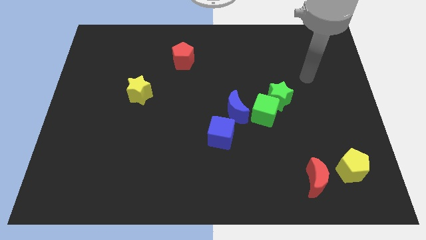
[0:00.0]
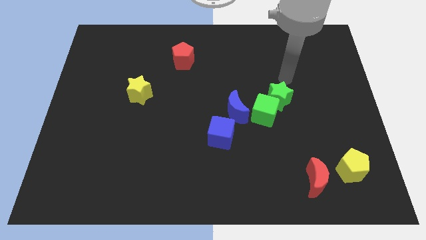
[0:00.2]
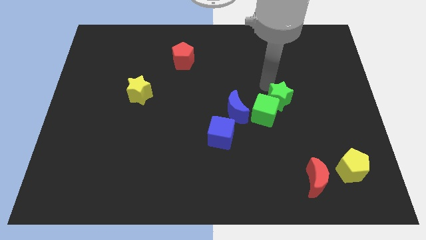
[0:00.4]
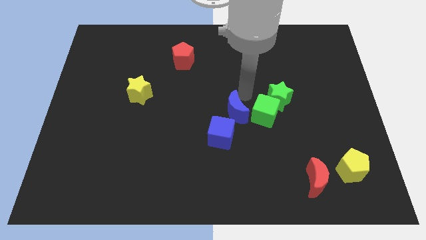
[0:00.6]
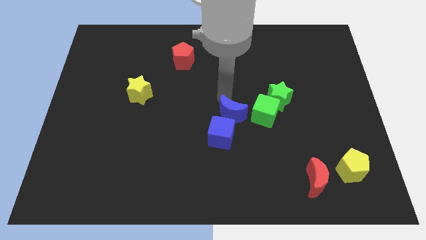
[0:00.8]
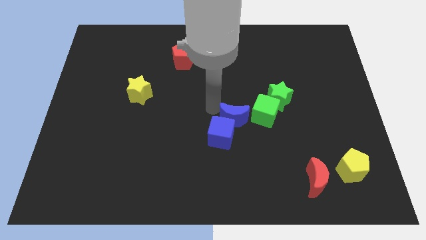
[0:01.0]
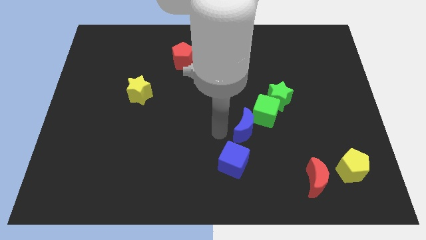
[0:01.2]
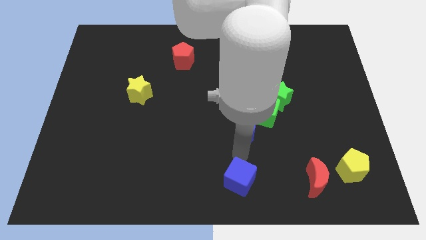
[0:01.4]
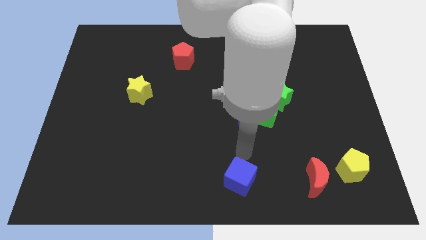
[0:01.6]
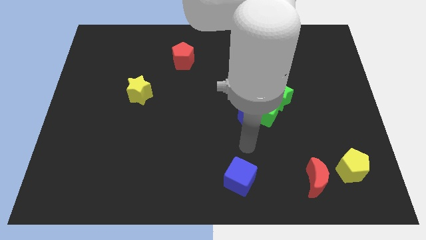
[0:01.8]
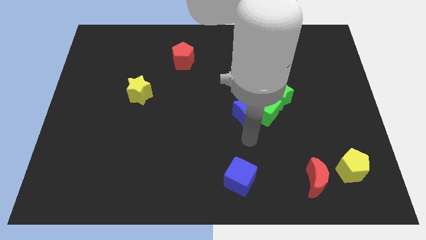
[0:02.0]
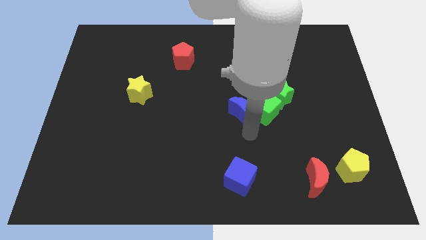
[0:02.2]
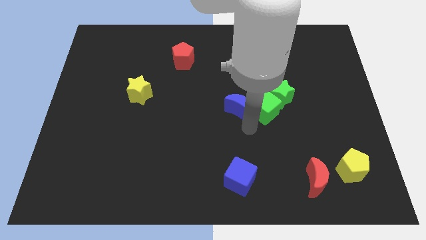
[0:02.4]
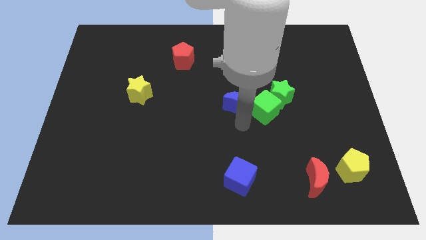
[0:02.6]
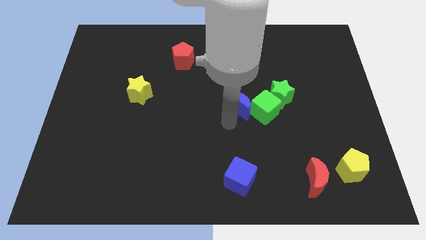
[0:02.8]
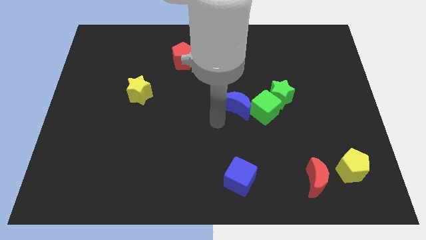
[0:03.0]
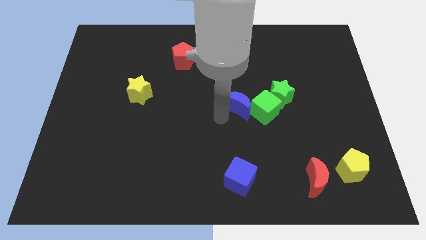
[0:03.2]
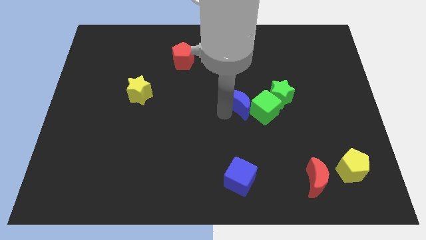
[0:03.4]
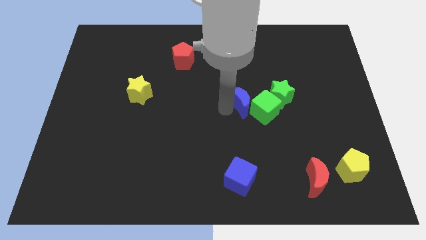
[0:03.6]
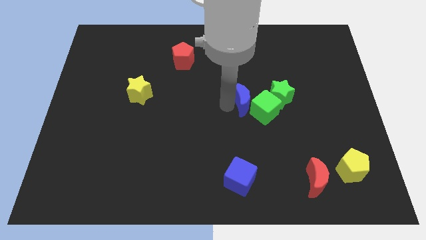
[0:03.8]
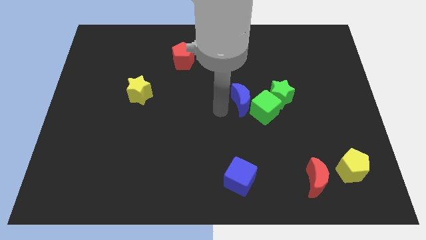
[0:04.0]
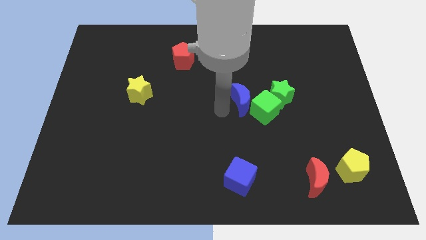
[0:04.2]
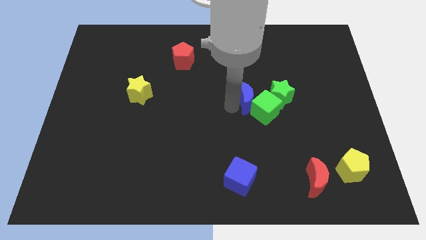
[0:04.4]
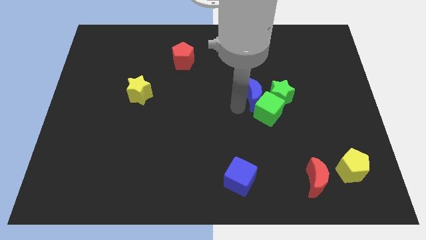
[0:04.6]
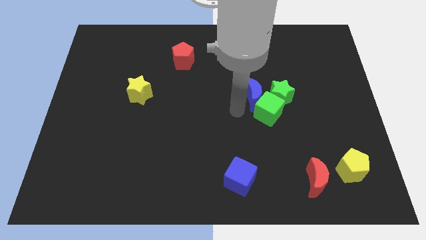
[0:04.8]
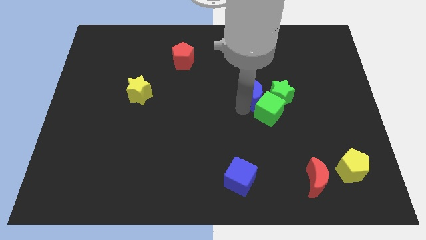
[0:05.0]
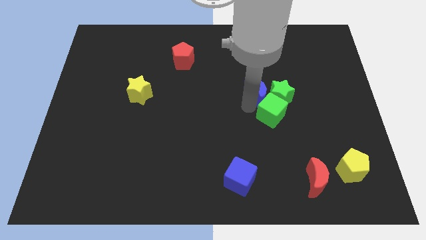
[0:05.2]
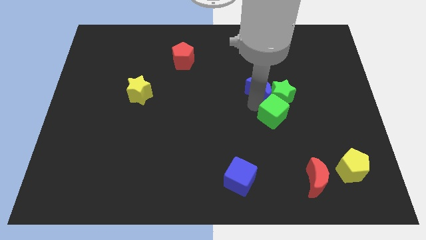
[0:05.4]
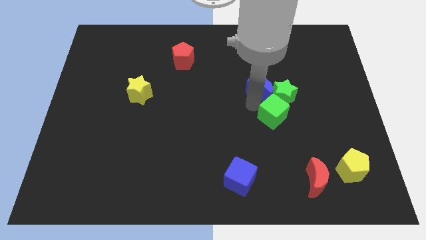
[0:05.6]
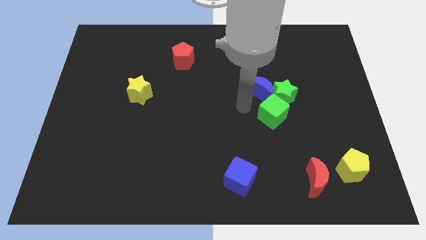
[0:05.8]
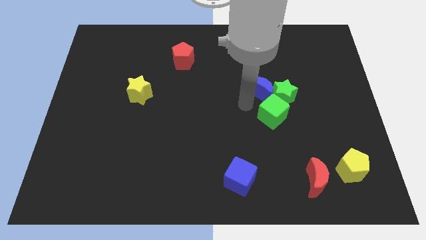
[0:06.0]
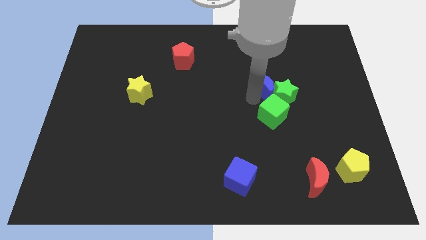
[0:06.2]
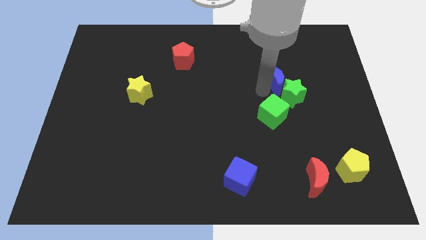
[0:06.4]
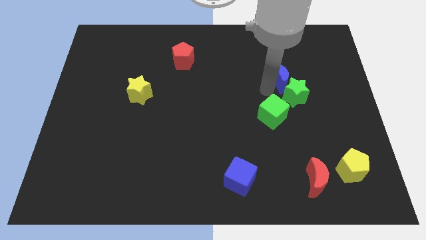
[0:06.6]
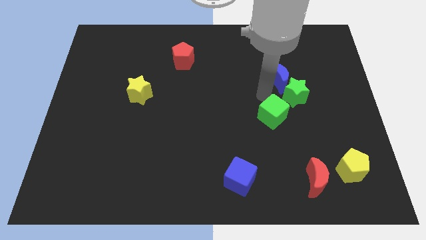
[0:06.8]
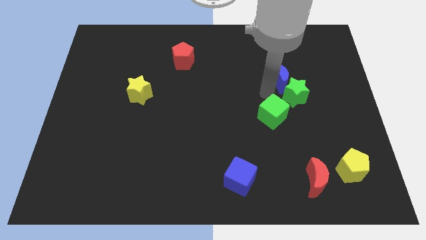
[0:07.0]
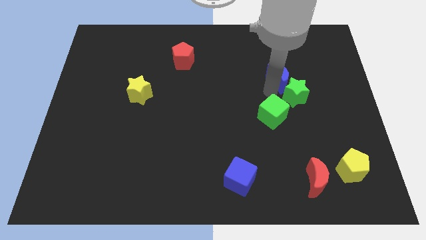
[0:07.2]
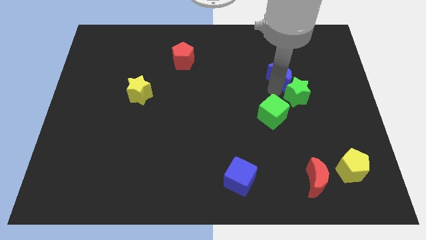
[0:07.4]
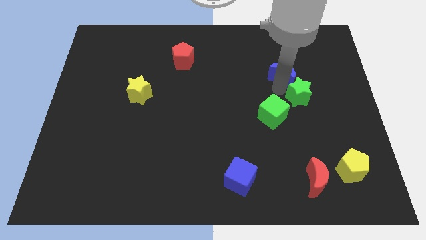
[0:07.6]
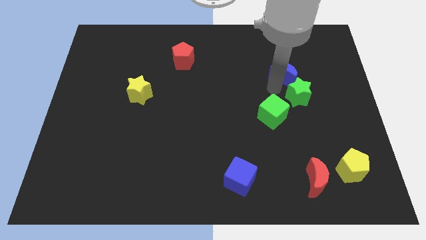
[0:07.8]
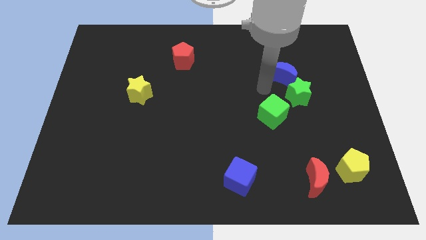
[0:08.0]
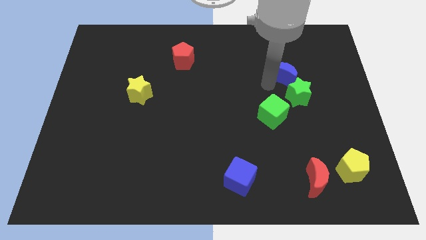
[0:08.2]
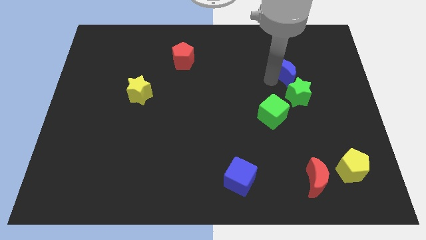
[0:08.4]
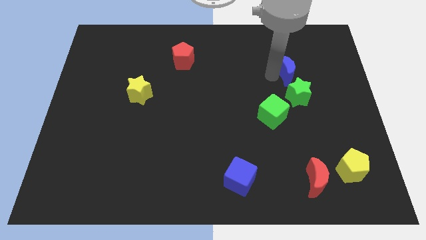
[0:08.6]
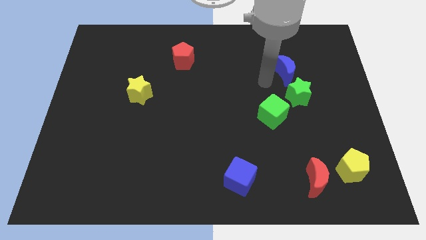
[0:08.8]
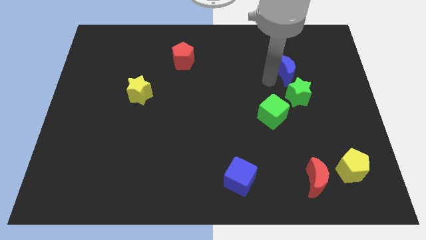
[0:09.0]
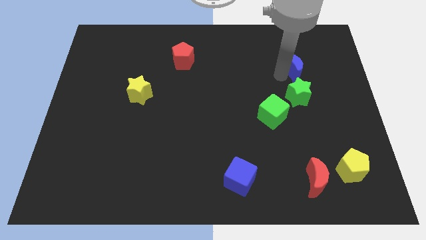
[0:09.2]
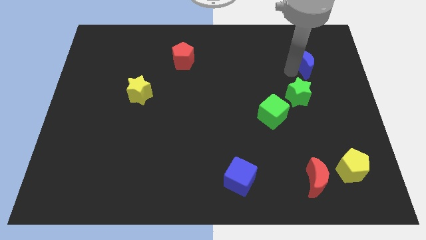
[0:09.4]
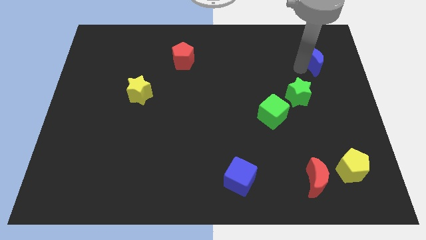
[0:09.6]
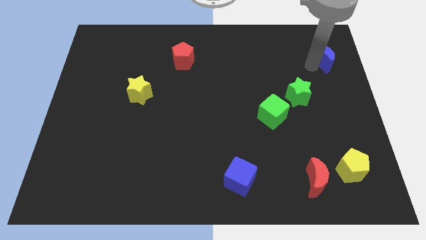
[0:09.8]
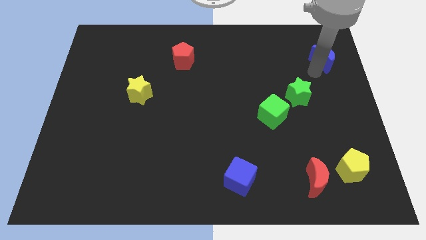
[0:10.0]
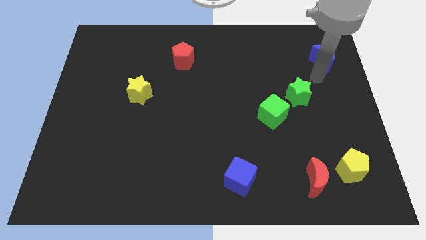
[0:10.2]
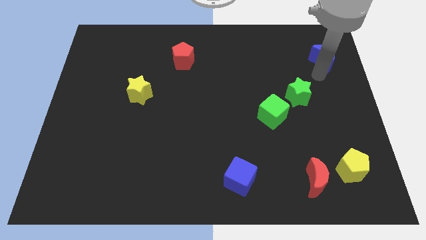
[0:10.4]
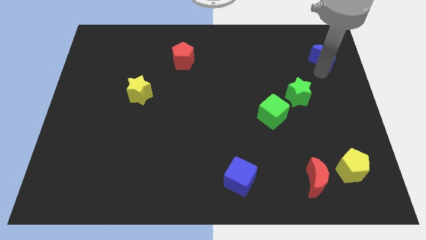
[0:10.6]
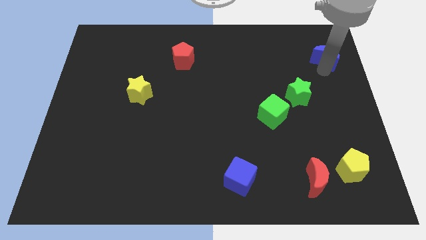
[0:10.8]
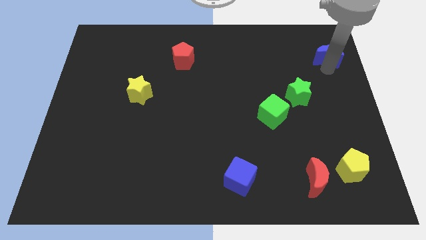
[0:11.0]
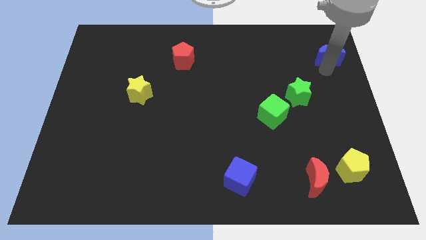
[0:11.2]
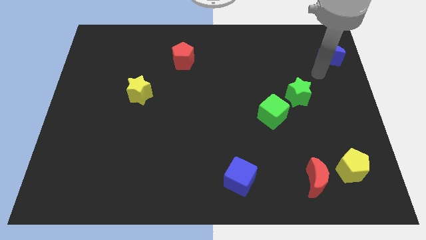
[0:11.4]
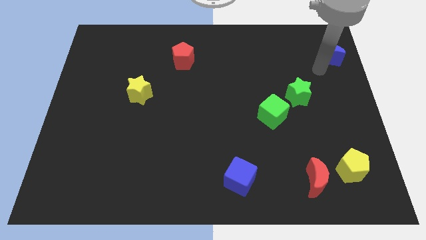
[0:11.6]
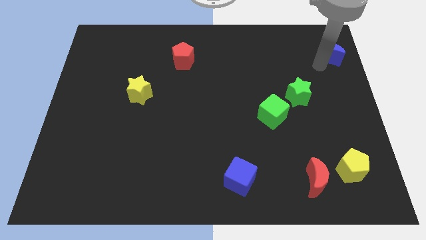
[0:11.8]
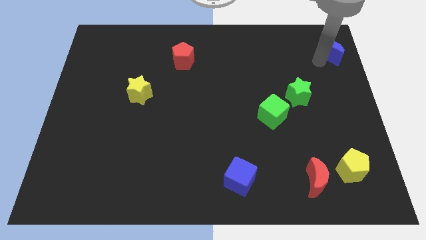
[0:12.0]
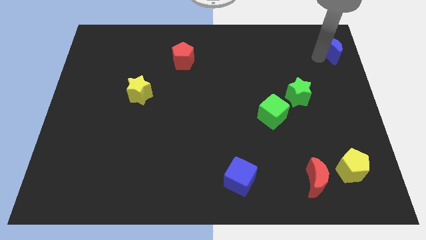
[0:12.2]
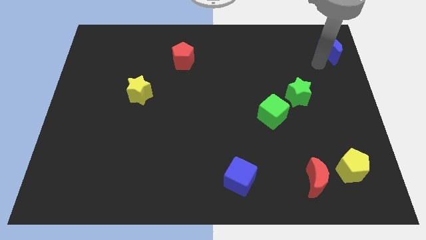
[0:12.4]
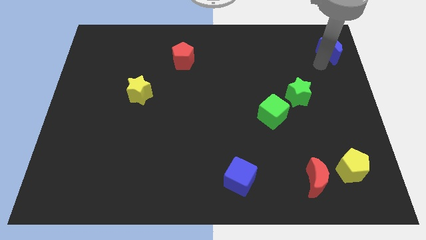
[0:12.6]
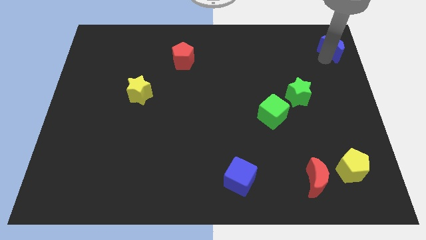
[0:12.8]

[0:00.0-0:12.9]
slide the blue moon to the top right corner

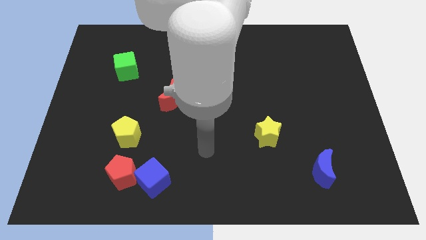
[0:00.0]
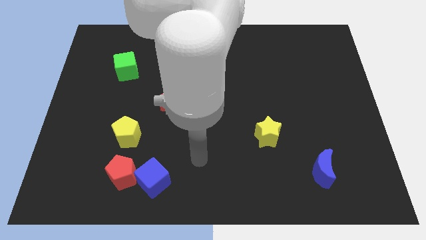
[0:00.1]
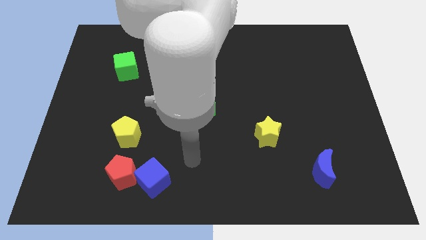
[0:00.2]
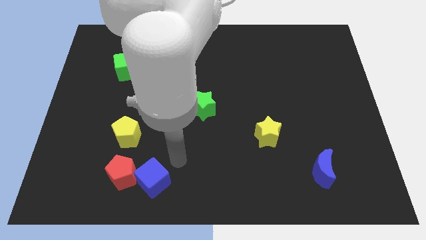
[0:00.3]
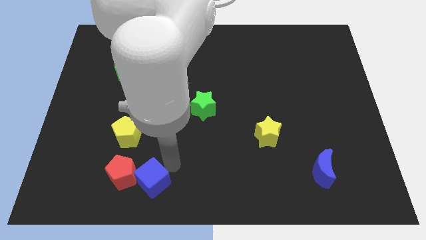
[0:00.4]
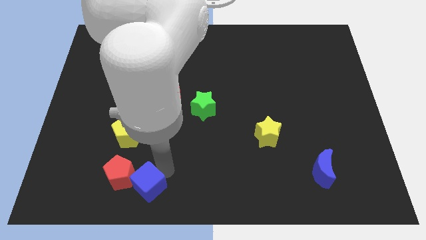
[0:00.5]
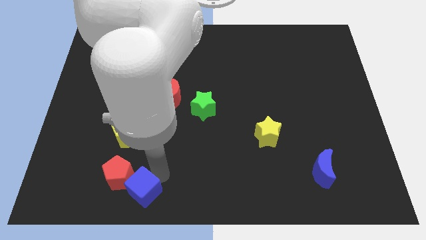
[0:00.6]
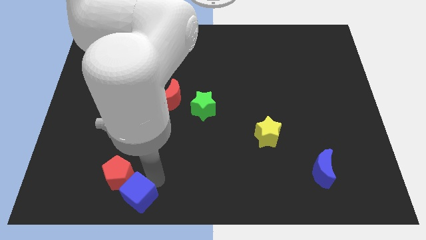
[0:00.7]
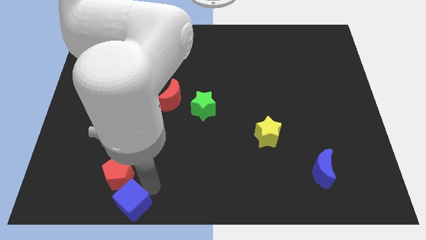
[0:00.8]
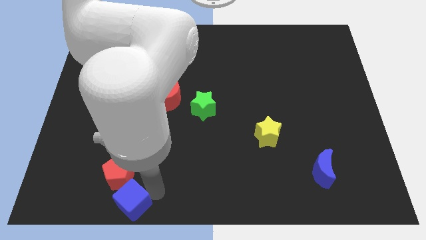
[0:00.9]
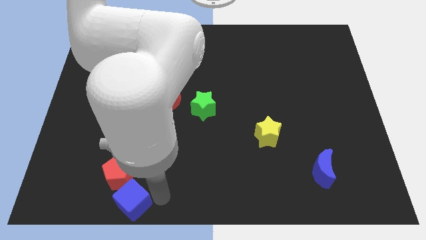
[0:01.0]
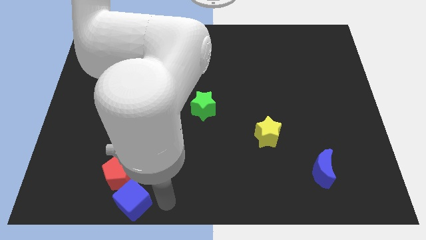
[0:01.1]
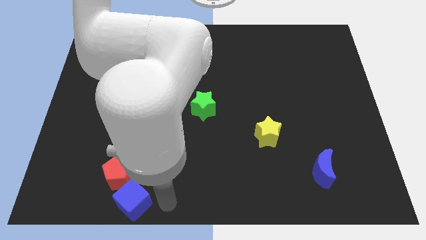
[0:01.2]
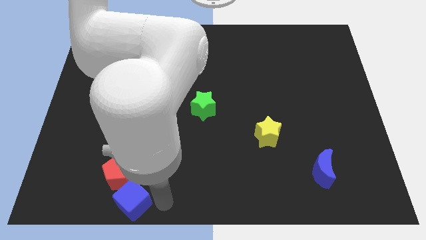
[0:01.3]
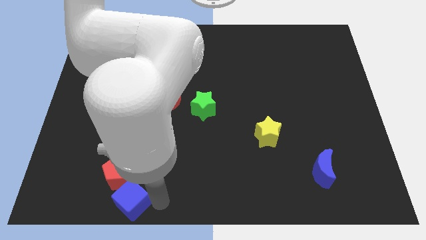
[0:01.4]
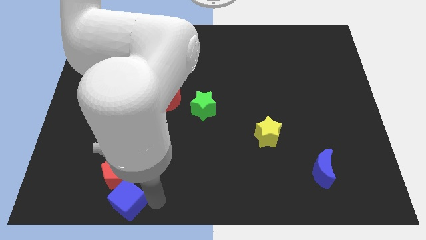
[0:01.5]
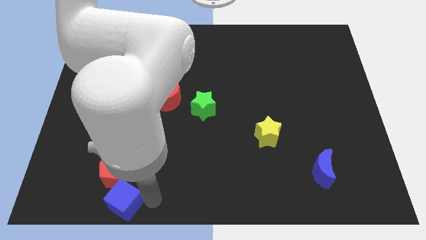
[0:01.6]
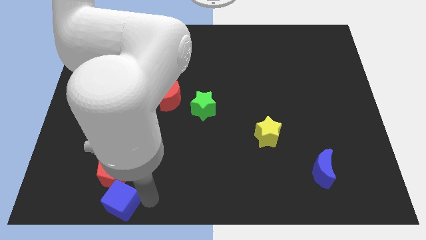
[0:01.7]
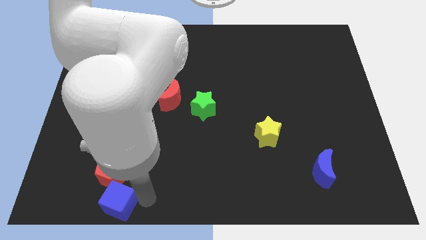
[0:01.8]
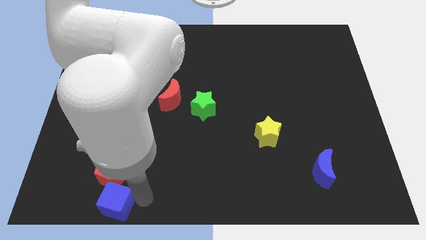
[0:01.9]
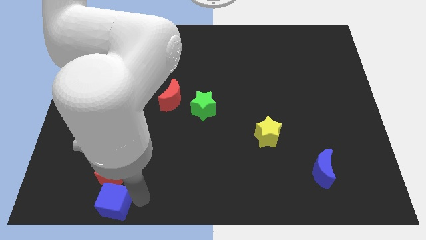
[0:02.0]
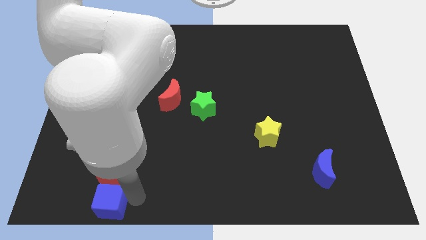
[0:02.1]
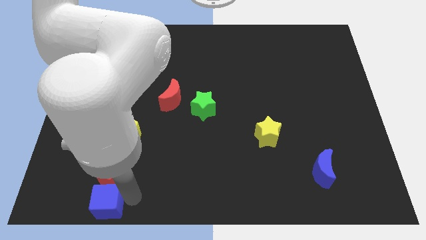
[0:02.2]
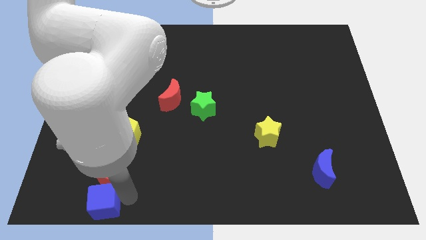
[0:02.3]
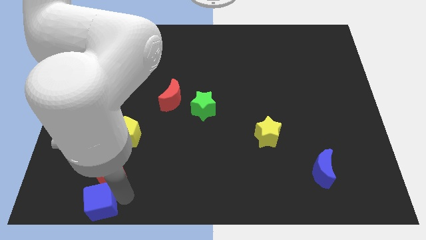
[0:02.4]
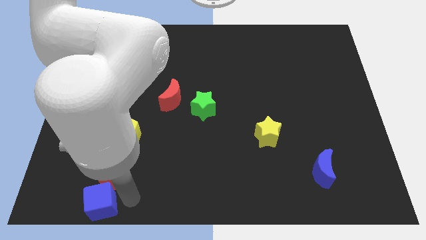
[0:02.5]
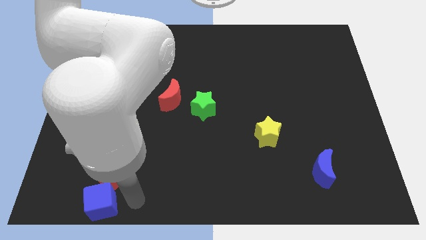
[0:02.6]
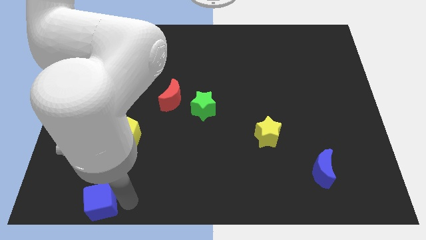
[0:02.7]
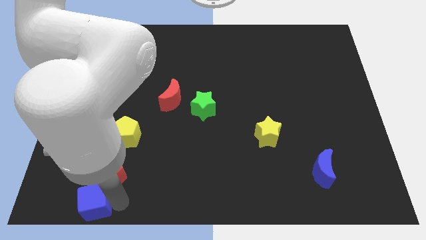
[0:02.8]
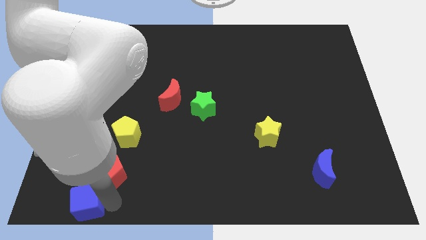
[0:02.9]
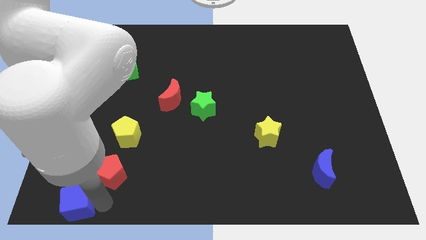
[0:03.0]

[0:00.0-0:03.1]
push the blue cube to the bottom left
